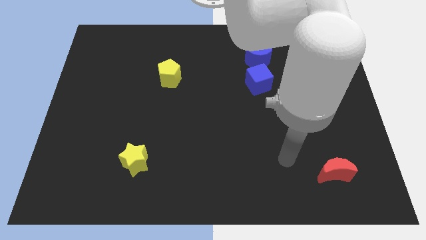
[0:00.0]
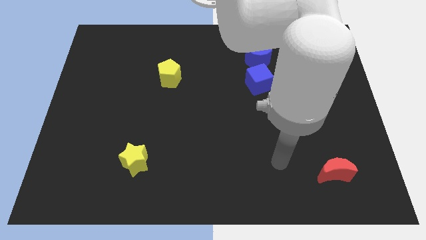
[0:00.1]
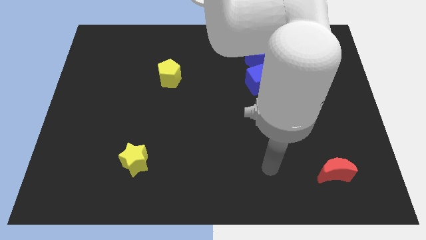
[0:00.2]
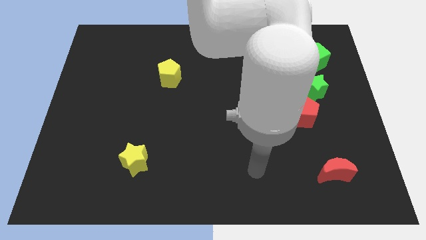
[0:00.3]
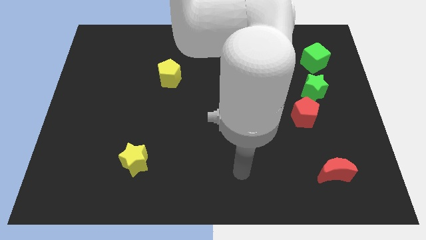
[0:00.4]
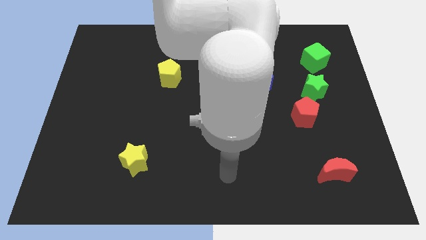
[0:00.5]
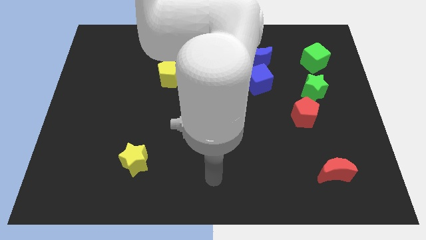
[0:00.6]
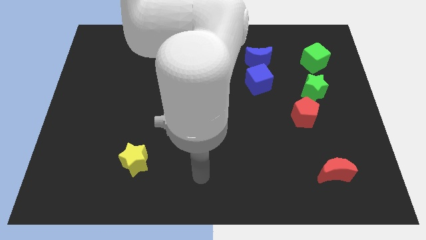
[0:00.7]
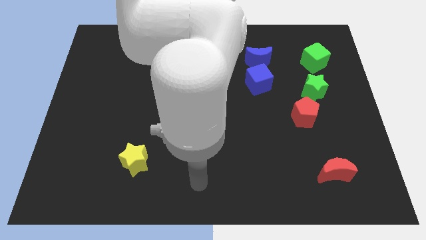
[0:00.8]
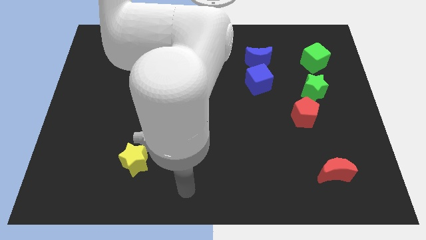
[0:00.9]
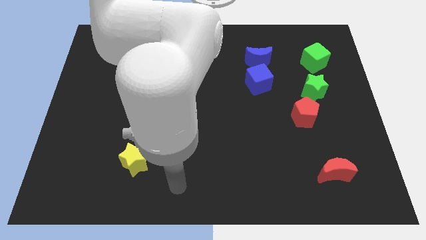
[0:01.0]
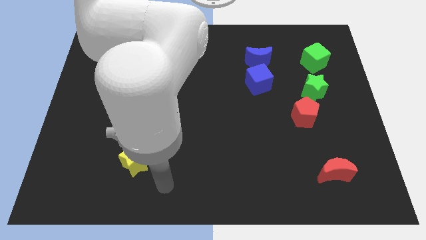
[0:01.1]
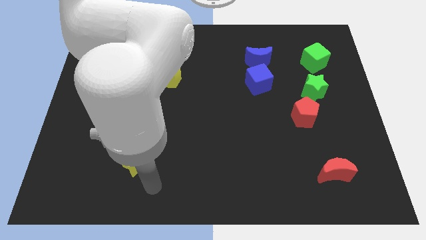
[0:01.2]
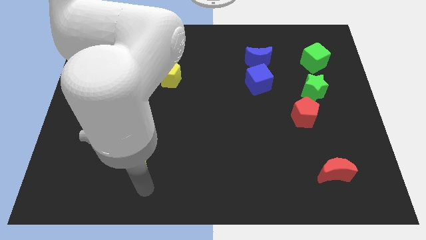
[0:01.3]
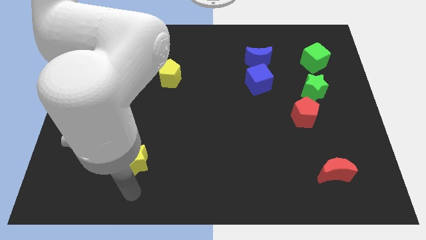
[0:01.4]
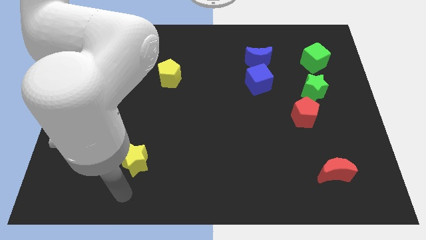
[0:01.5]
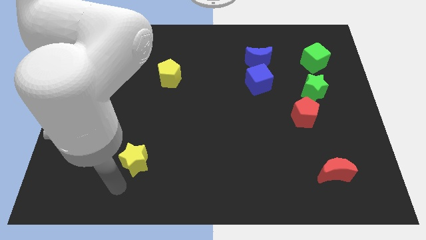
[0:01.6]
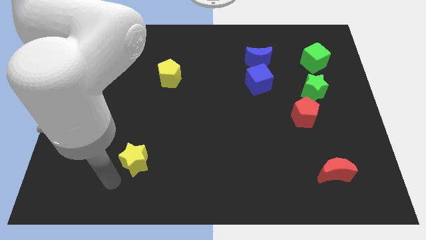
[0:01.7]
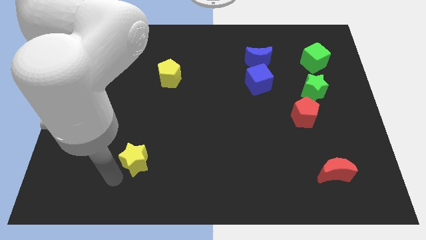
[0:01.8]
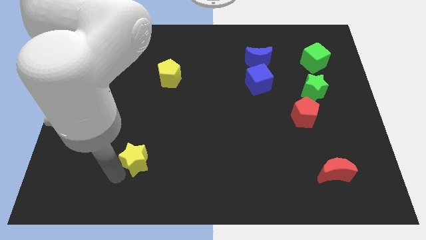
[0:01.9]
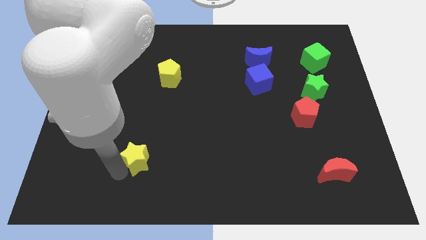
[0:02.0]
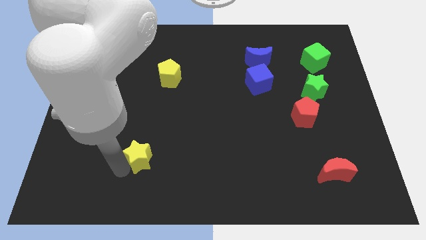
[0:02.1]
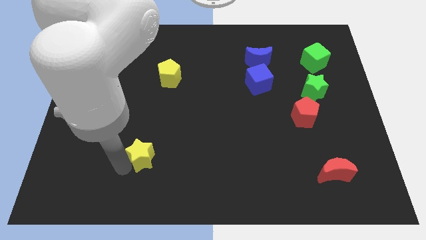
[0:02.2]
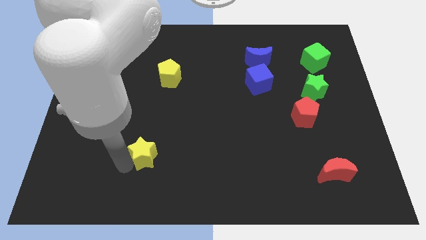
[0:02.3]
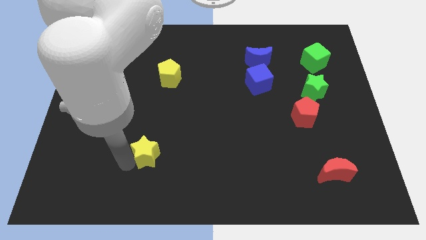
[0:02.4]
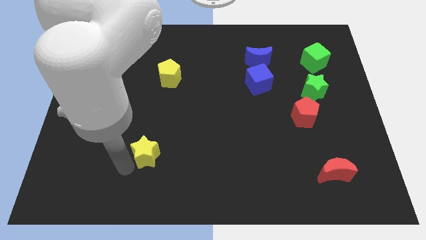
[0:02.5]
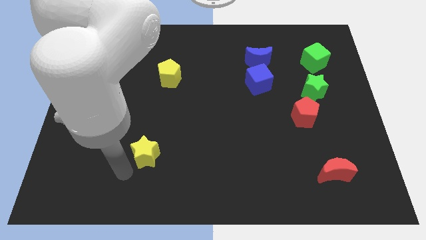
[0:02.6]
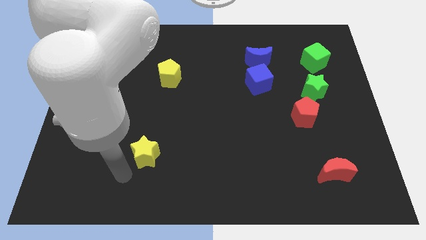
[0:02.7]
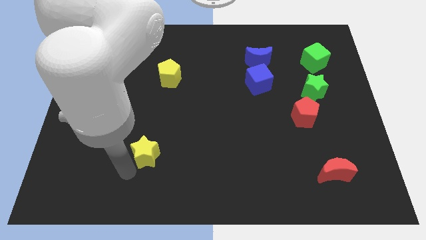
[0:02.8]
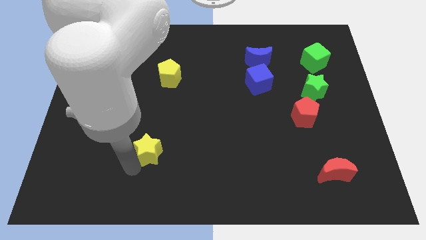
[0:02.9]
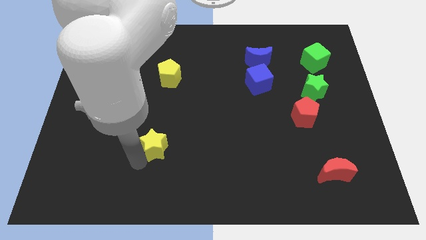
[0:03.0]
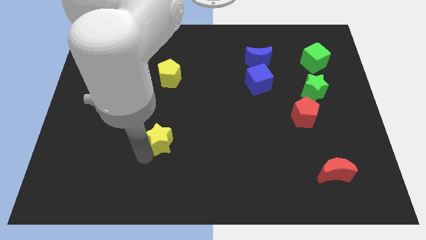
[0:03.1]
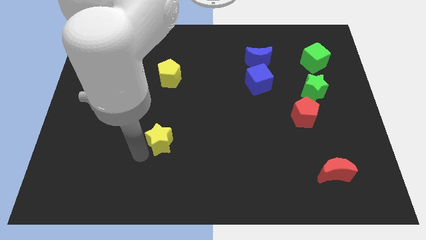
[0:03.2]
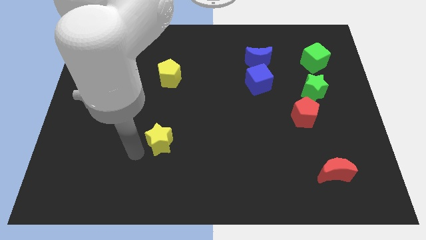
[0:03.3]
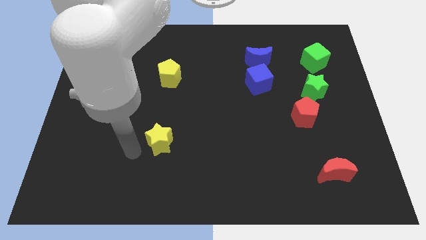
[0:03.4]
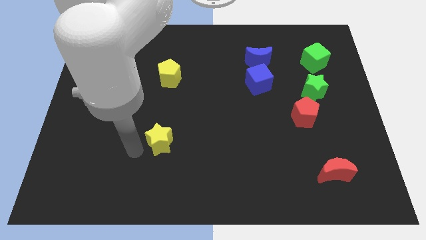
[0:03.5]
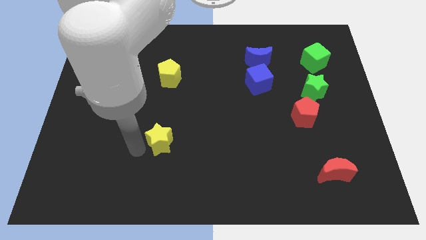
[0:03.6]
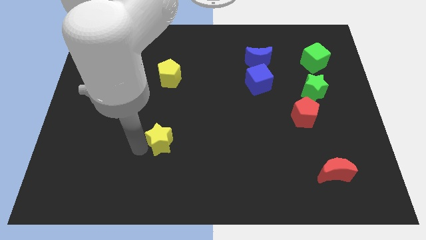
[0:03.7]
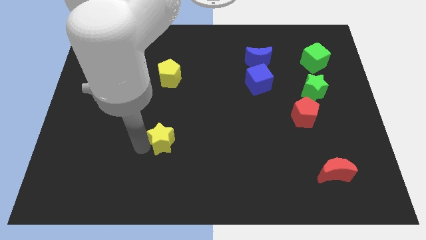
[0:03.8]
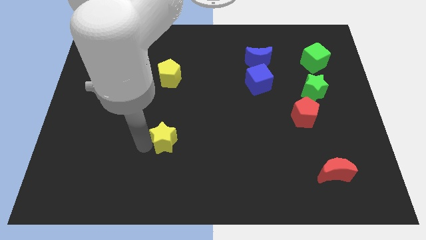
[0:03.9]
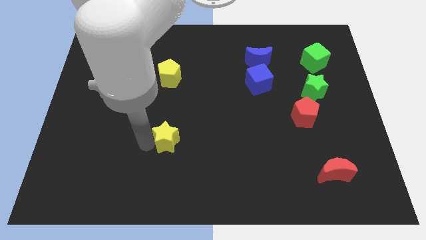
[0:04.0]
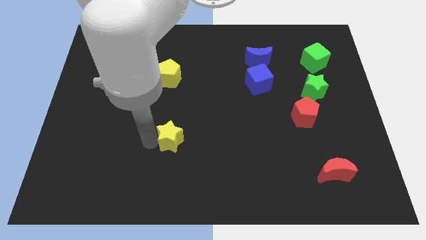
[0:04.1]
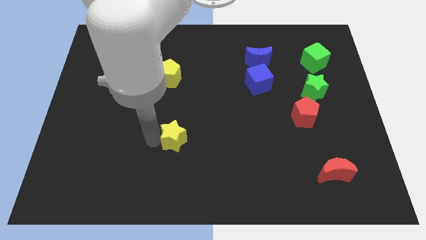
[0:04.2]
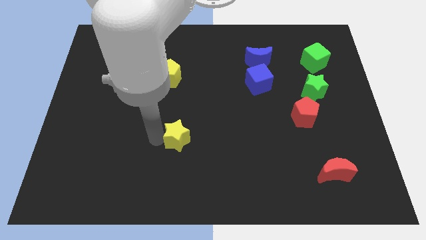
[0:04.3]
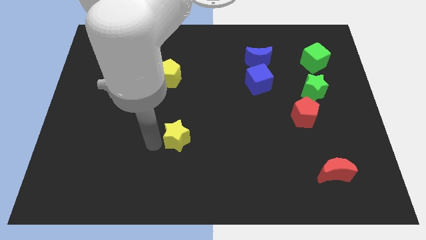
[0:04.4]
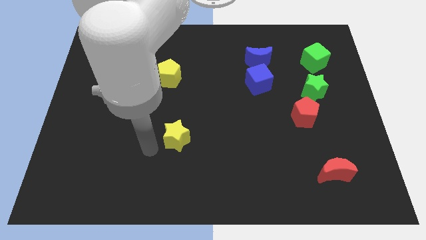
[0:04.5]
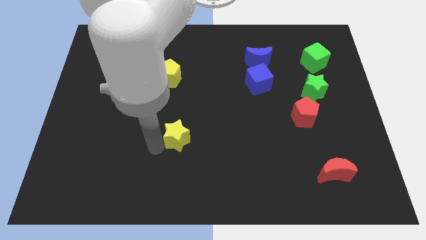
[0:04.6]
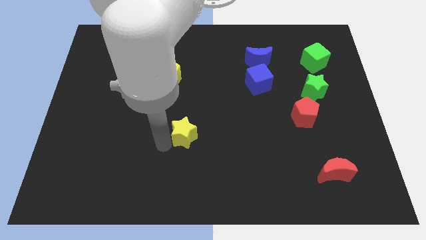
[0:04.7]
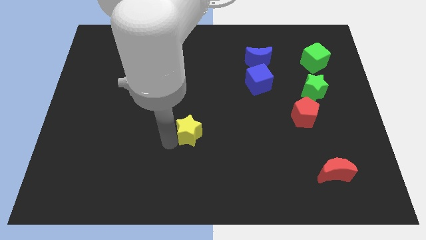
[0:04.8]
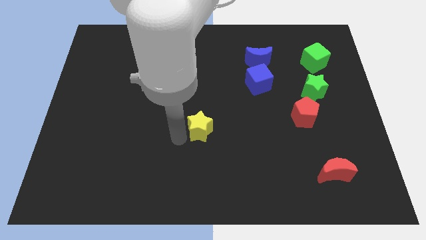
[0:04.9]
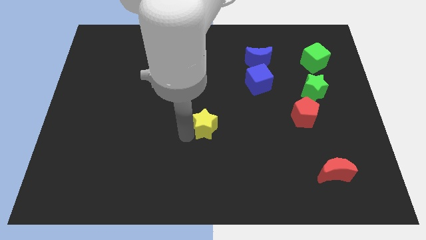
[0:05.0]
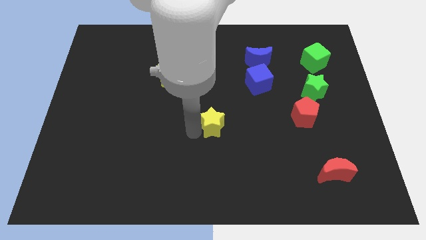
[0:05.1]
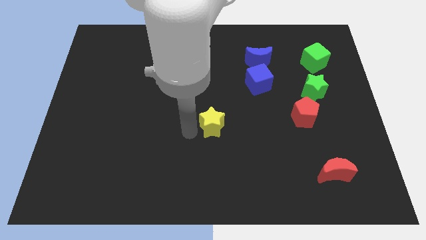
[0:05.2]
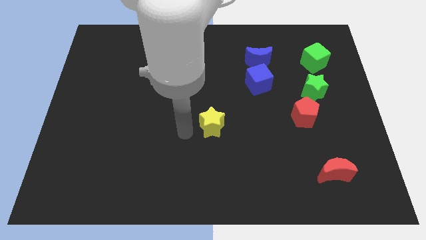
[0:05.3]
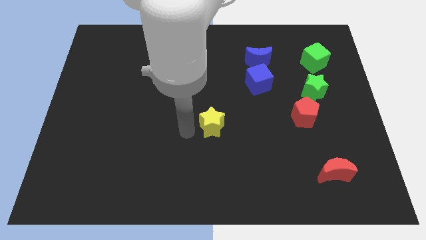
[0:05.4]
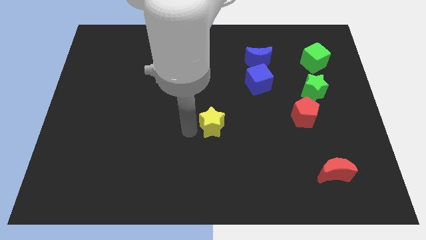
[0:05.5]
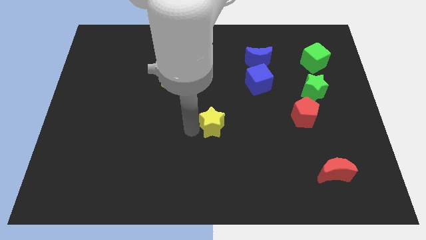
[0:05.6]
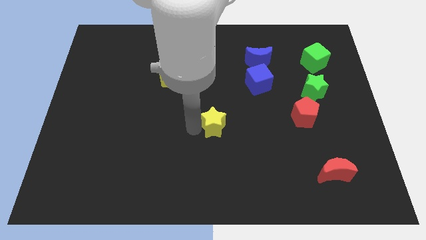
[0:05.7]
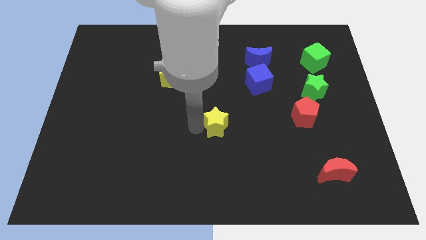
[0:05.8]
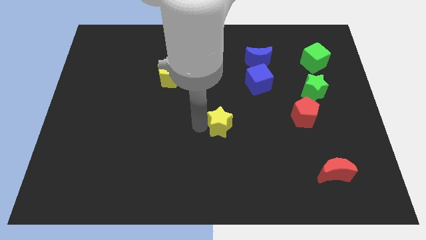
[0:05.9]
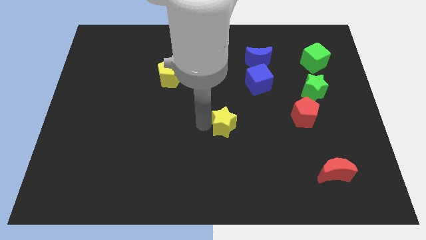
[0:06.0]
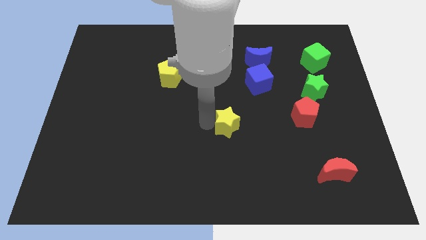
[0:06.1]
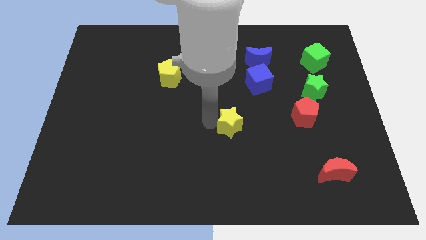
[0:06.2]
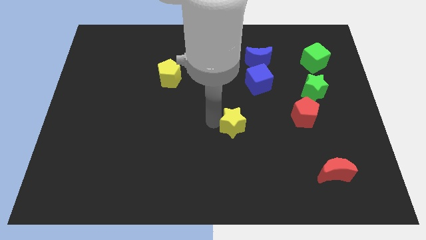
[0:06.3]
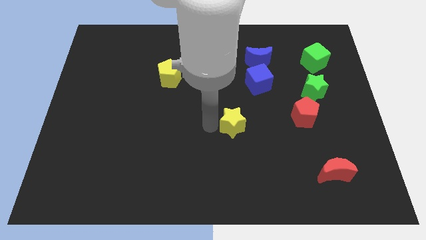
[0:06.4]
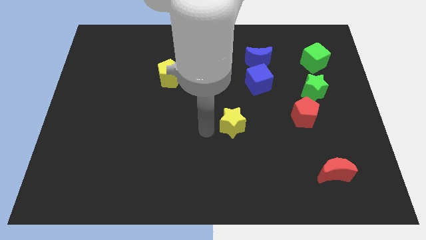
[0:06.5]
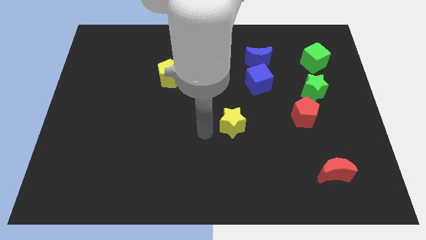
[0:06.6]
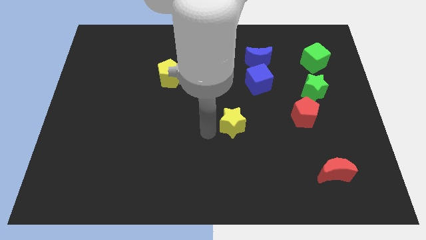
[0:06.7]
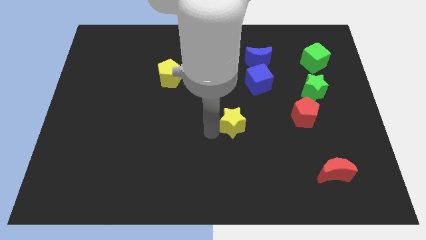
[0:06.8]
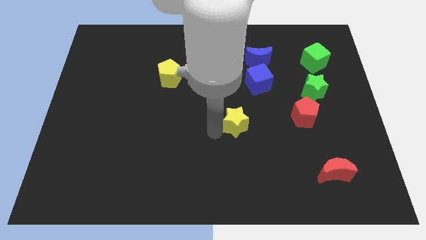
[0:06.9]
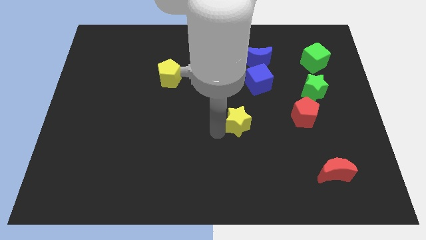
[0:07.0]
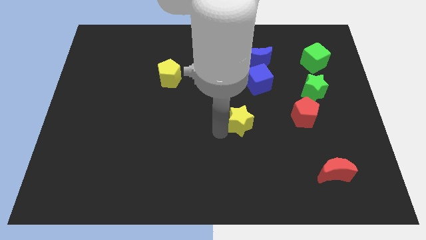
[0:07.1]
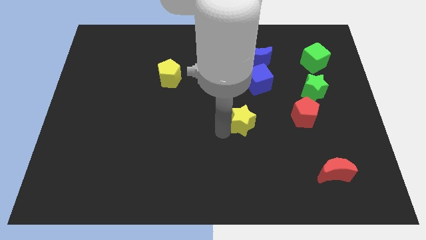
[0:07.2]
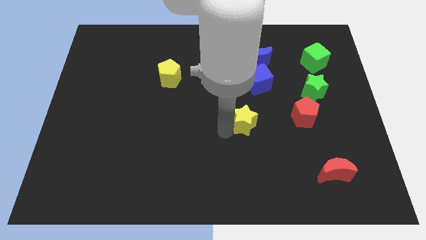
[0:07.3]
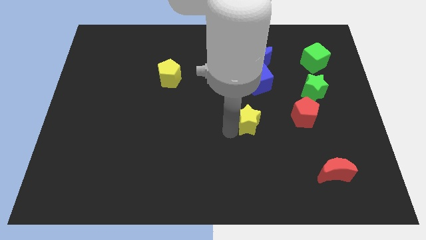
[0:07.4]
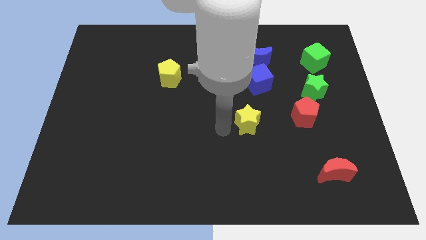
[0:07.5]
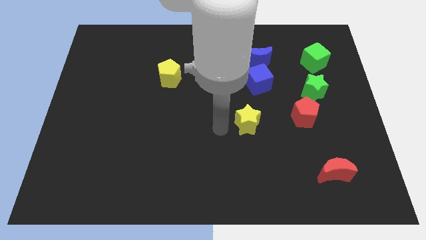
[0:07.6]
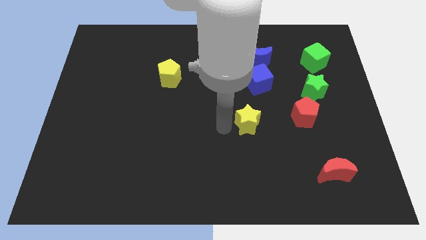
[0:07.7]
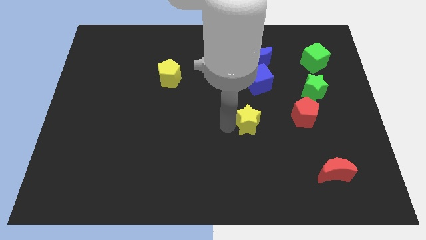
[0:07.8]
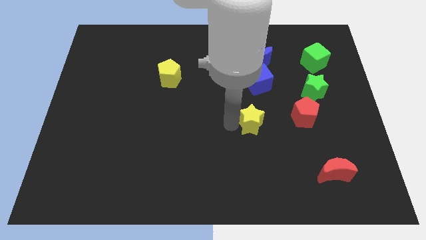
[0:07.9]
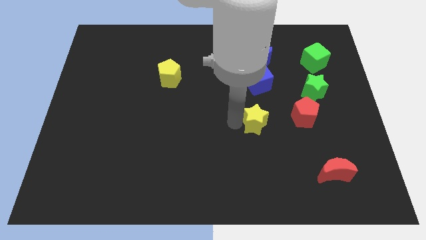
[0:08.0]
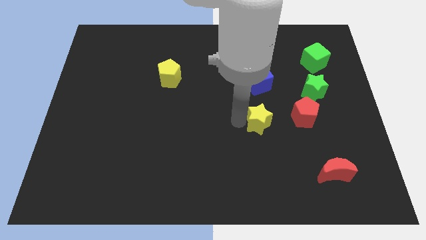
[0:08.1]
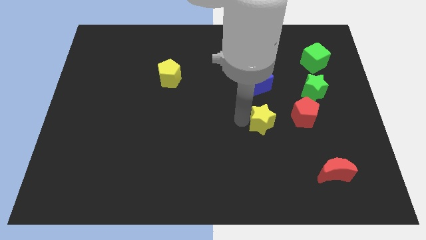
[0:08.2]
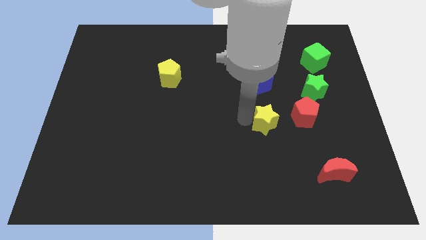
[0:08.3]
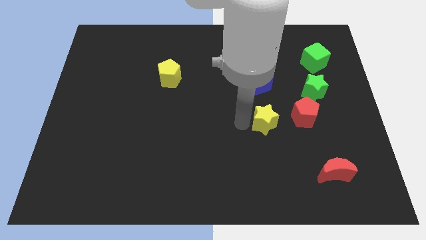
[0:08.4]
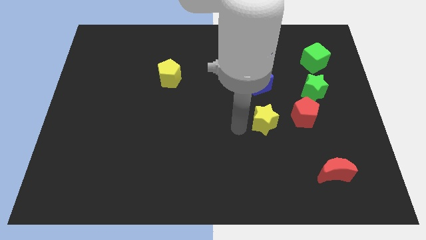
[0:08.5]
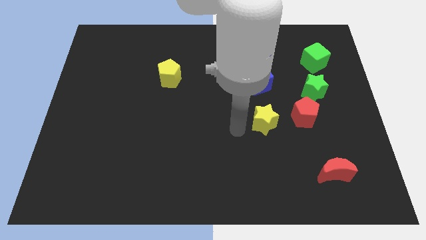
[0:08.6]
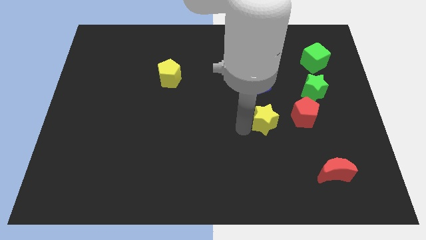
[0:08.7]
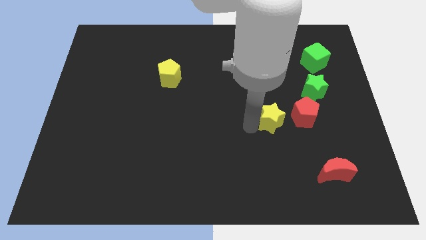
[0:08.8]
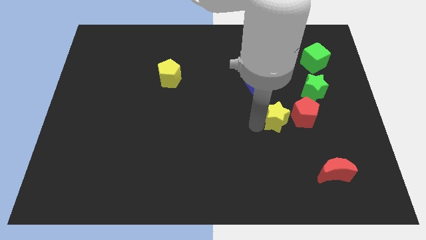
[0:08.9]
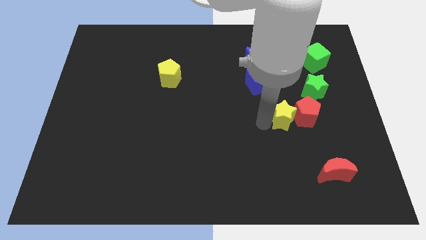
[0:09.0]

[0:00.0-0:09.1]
put the yellow star next to the red pentagon
